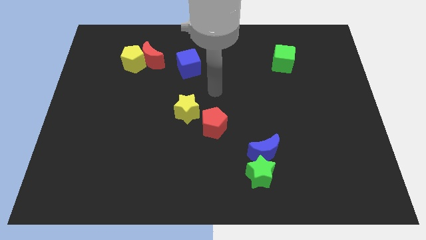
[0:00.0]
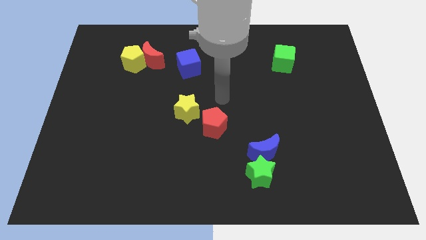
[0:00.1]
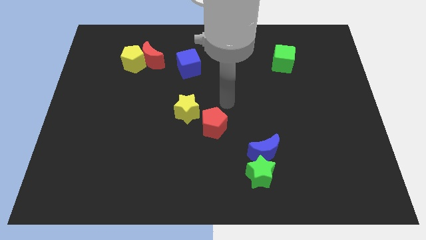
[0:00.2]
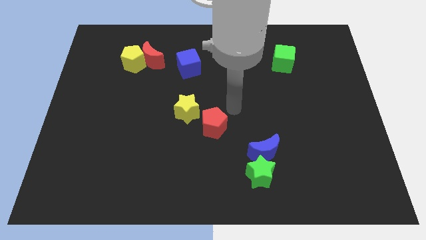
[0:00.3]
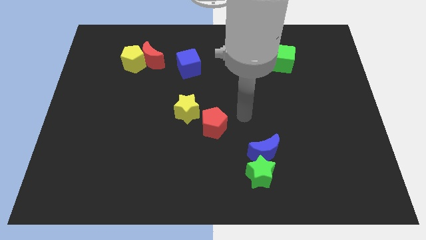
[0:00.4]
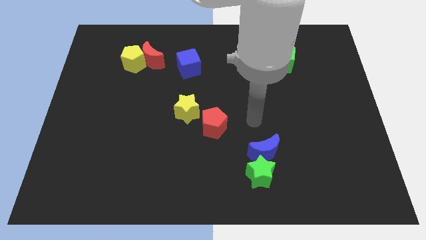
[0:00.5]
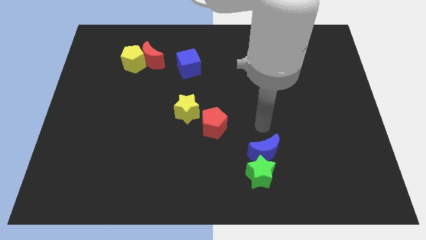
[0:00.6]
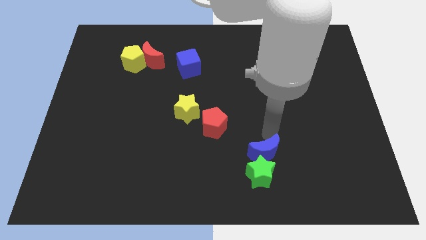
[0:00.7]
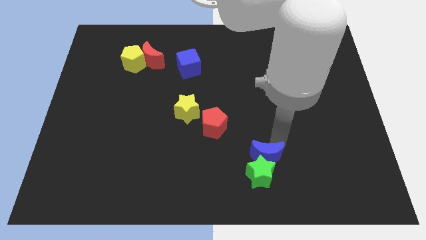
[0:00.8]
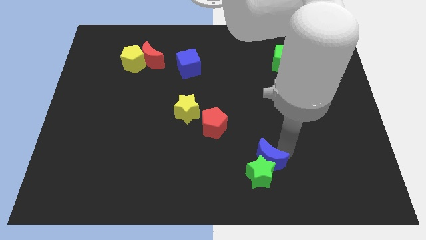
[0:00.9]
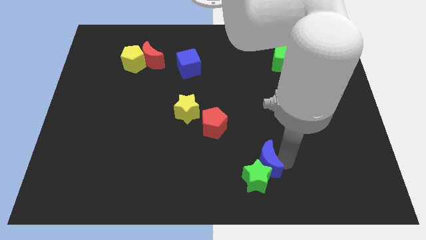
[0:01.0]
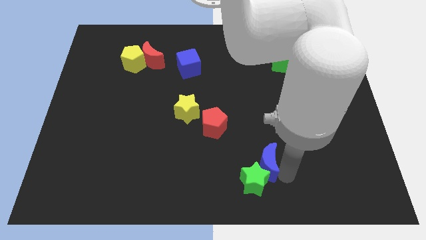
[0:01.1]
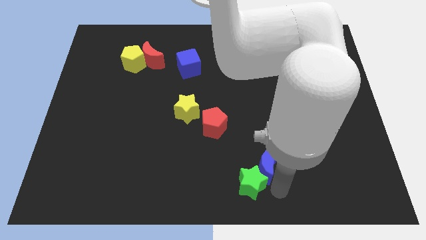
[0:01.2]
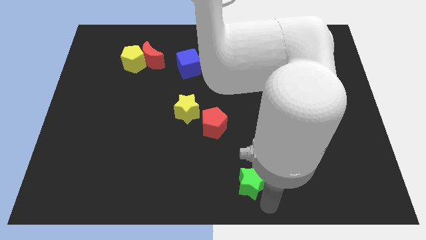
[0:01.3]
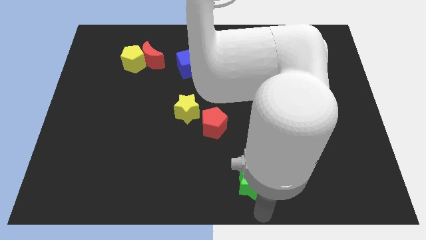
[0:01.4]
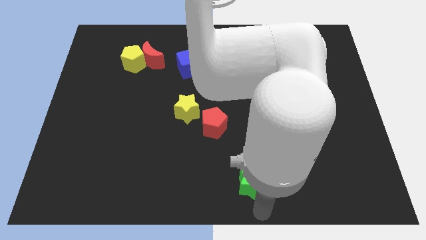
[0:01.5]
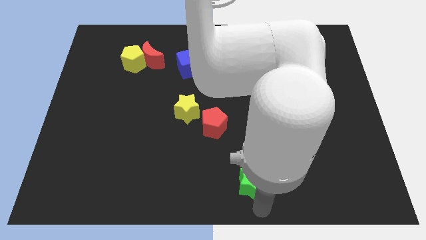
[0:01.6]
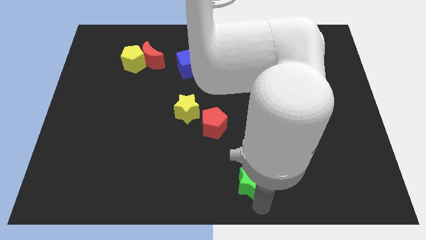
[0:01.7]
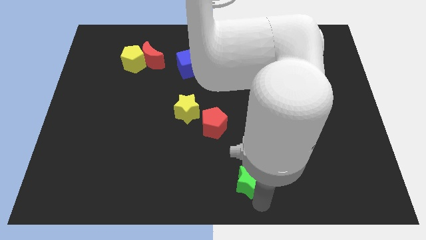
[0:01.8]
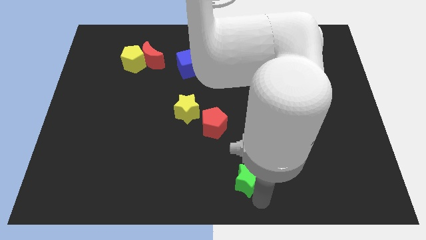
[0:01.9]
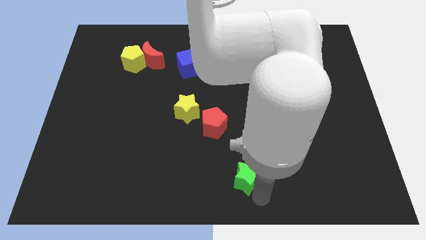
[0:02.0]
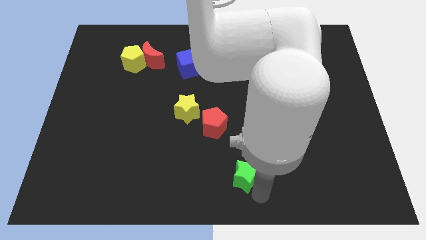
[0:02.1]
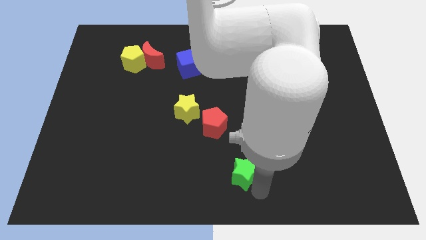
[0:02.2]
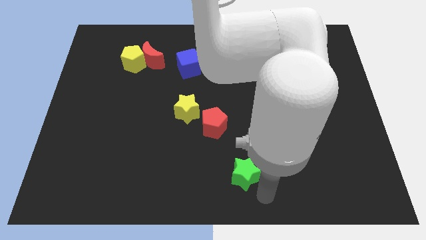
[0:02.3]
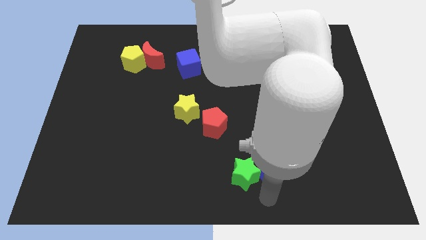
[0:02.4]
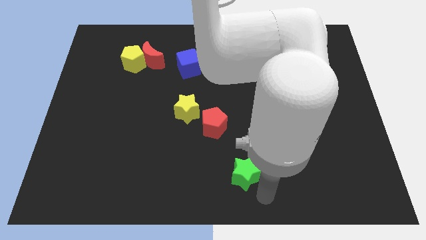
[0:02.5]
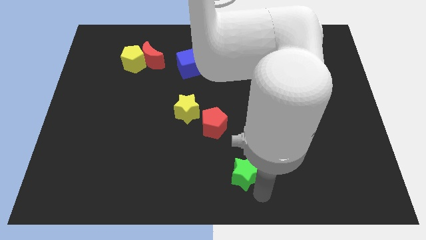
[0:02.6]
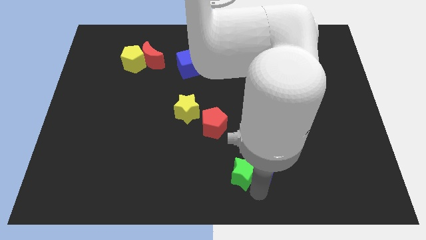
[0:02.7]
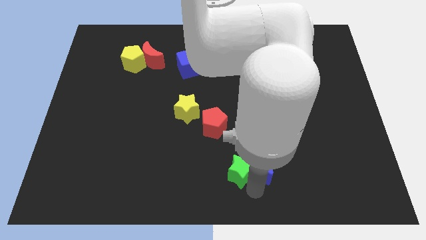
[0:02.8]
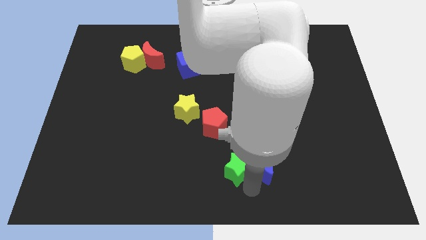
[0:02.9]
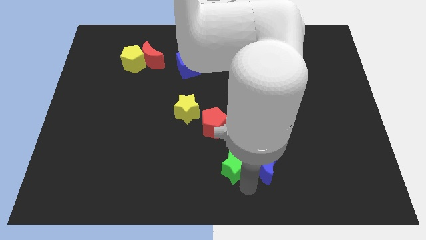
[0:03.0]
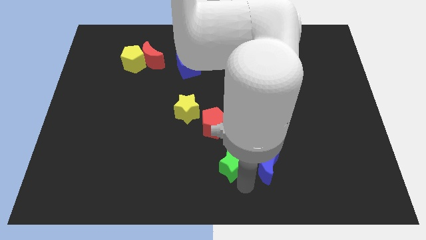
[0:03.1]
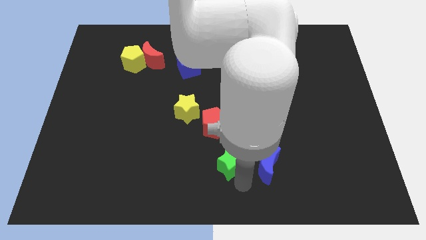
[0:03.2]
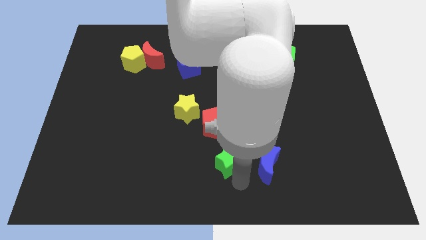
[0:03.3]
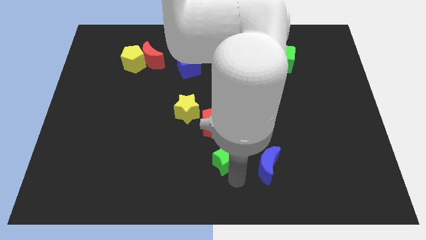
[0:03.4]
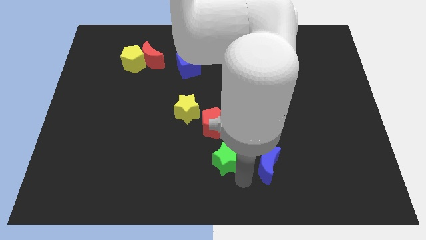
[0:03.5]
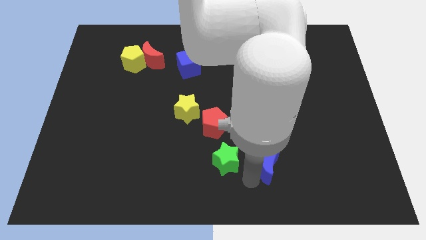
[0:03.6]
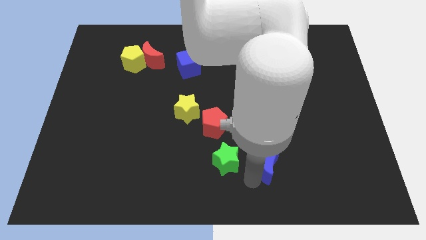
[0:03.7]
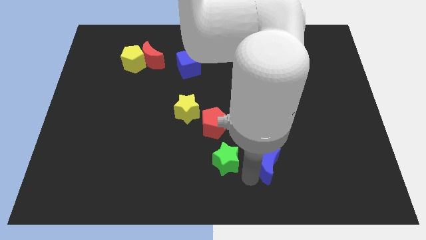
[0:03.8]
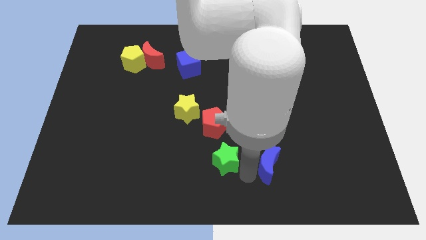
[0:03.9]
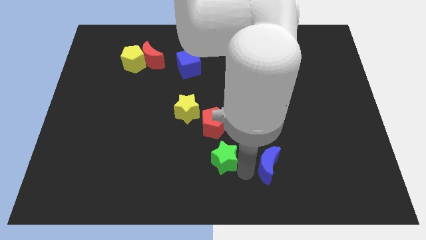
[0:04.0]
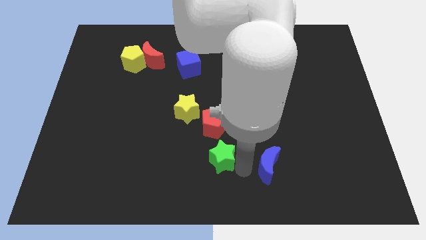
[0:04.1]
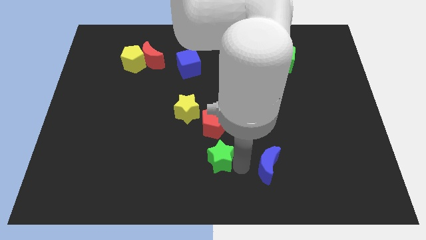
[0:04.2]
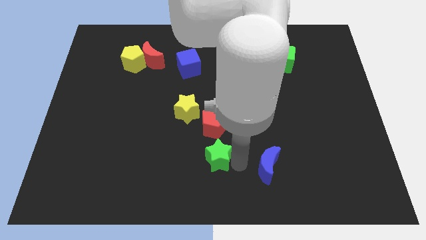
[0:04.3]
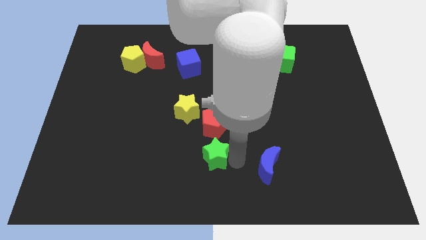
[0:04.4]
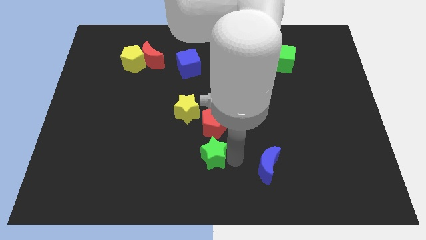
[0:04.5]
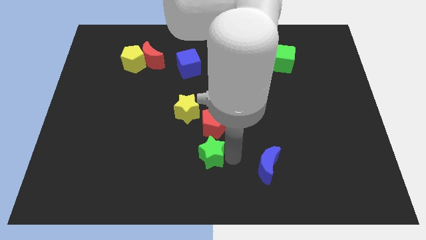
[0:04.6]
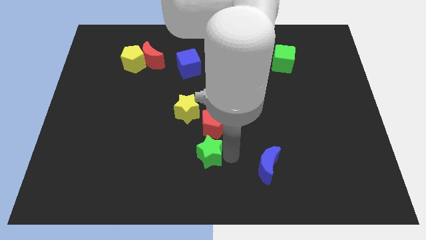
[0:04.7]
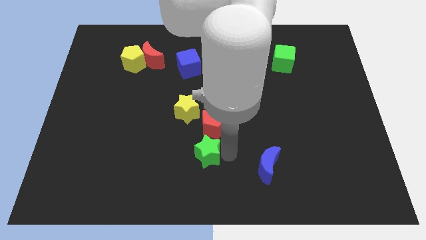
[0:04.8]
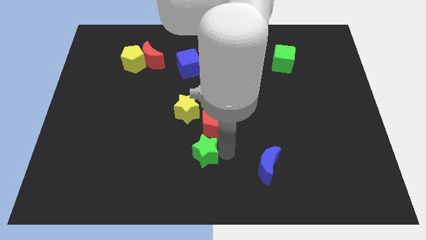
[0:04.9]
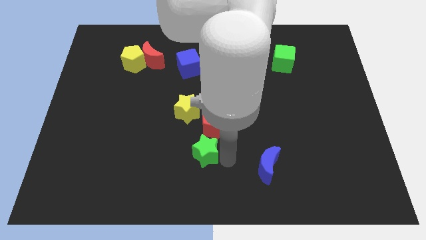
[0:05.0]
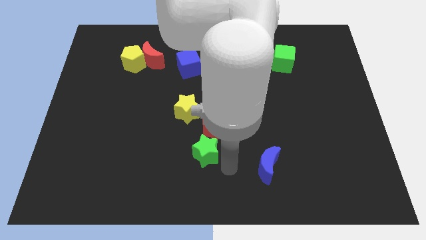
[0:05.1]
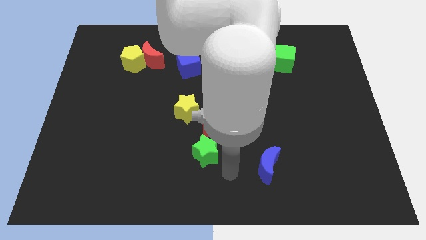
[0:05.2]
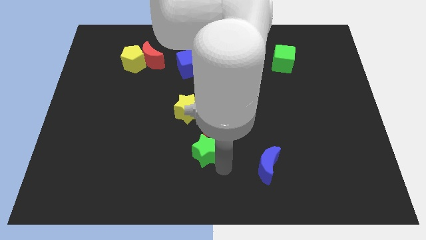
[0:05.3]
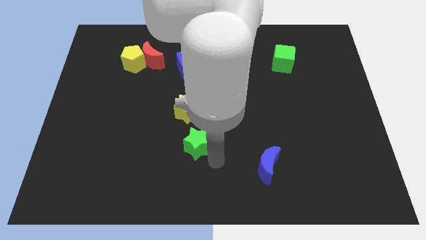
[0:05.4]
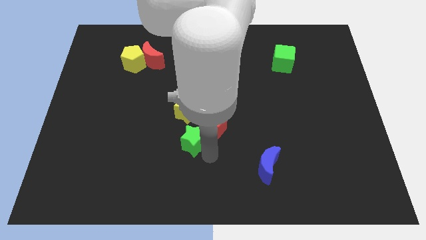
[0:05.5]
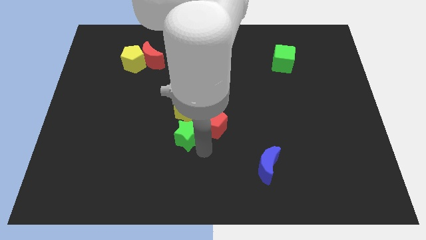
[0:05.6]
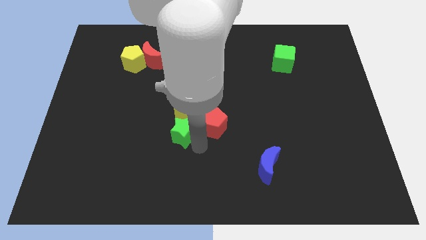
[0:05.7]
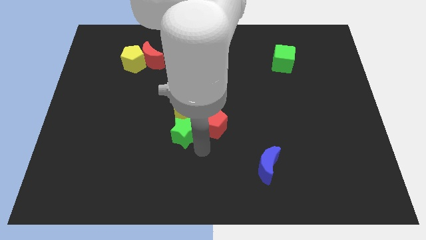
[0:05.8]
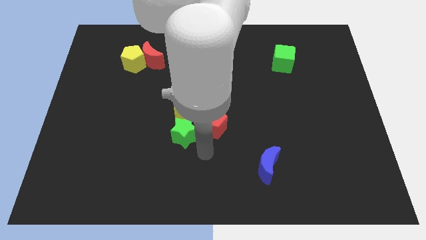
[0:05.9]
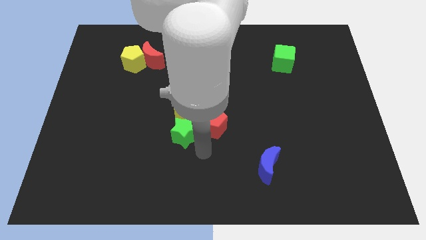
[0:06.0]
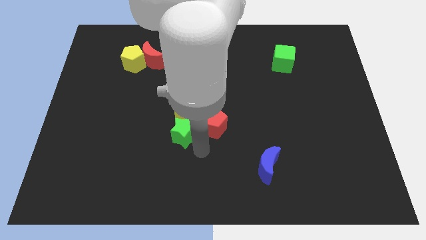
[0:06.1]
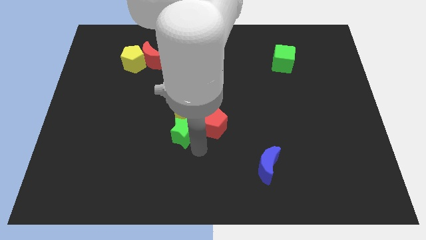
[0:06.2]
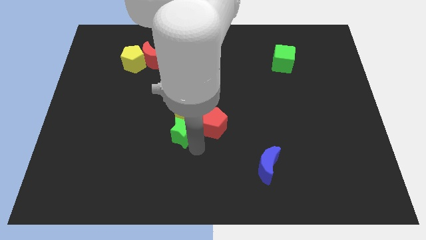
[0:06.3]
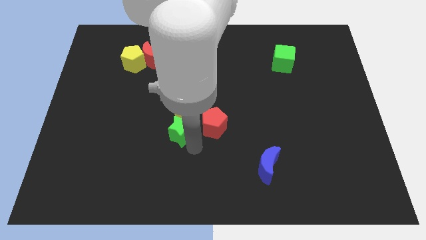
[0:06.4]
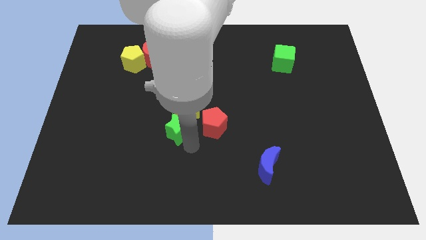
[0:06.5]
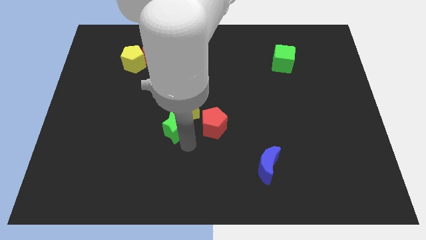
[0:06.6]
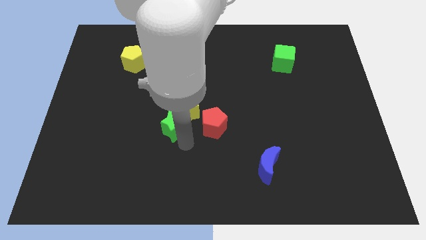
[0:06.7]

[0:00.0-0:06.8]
move the green star diagonally up and left

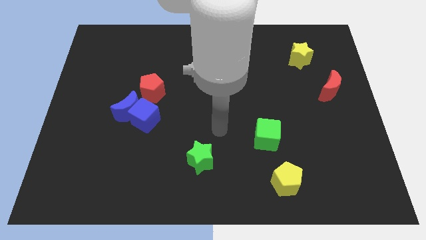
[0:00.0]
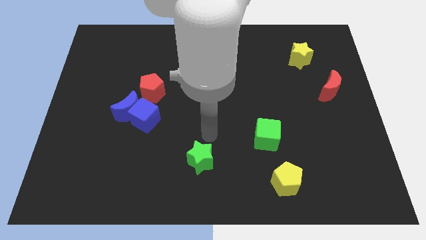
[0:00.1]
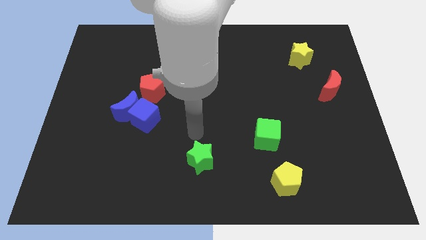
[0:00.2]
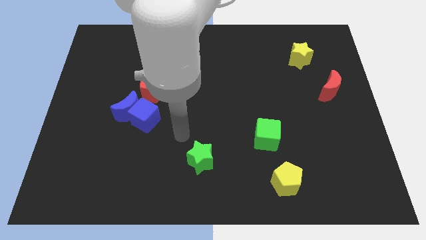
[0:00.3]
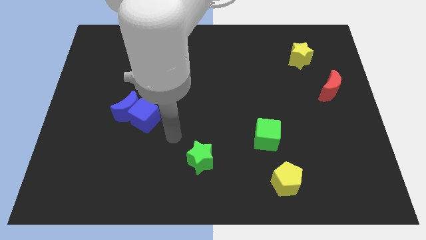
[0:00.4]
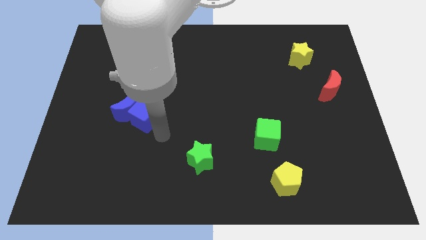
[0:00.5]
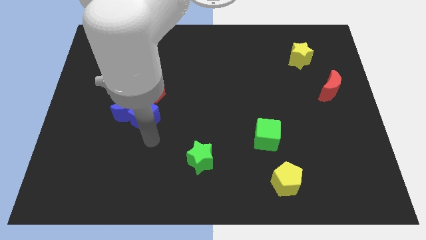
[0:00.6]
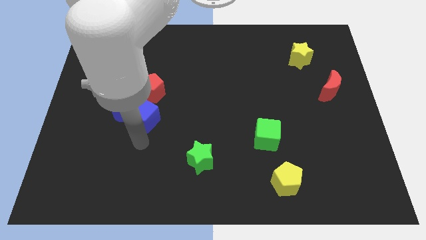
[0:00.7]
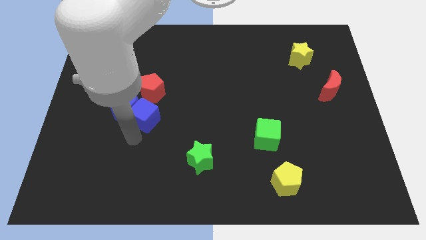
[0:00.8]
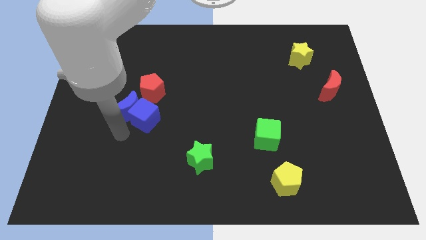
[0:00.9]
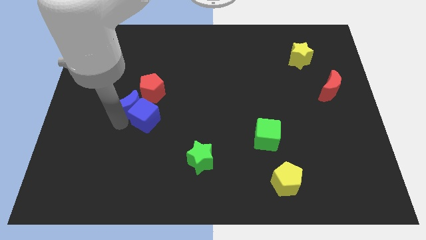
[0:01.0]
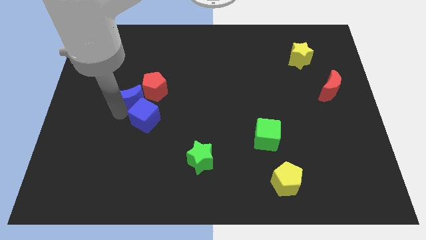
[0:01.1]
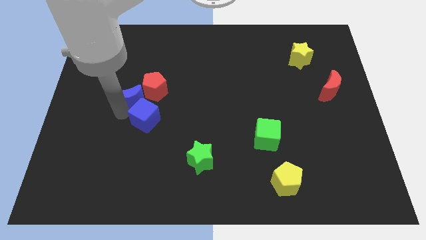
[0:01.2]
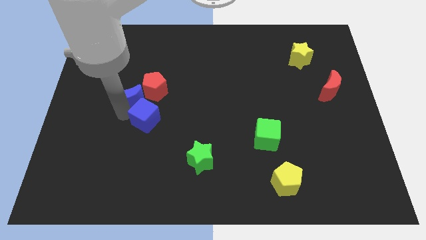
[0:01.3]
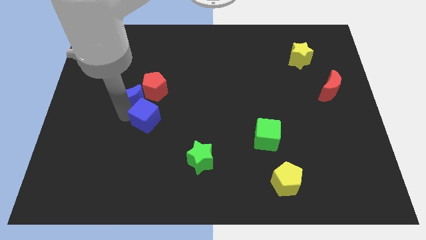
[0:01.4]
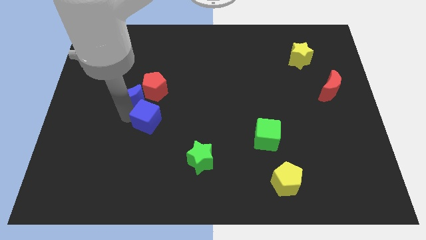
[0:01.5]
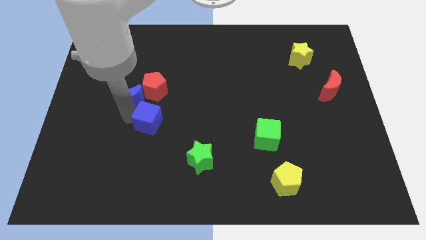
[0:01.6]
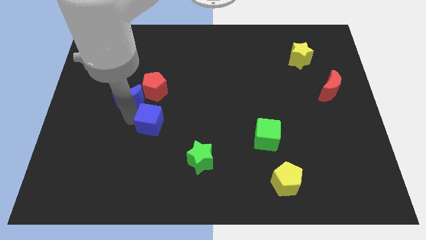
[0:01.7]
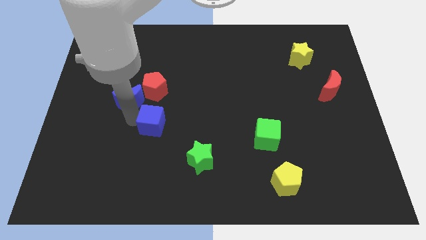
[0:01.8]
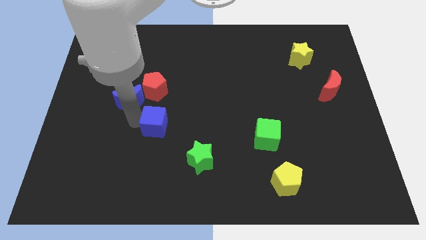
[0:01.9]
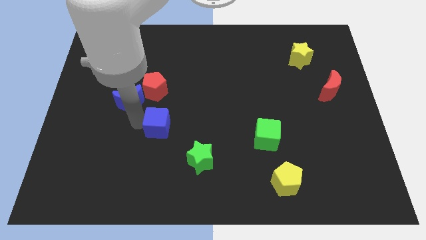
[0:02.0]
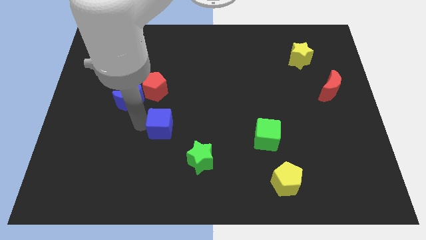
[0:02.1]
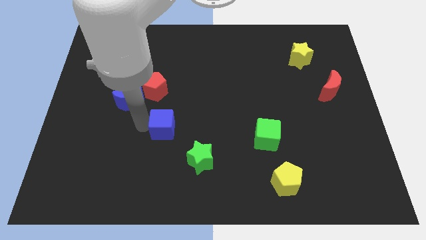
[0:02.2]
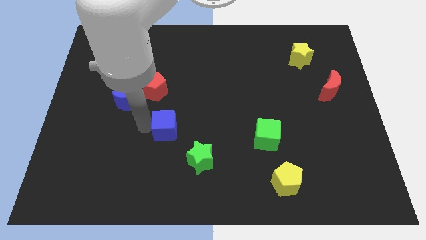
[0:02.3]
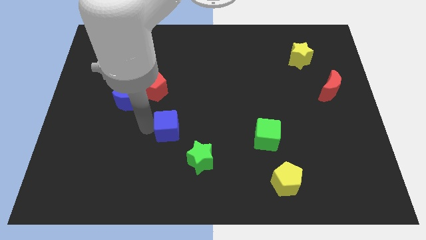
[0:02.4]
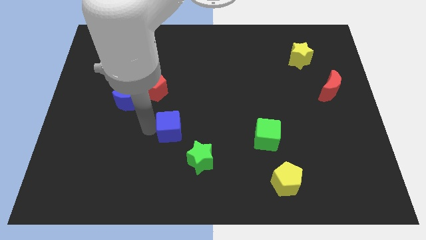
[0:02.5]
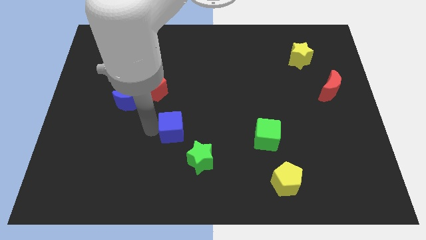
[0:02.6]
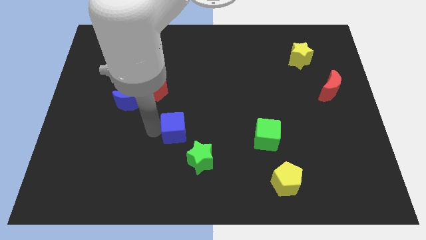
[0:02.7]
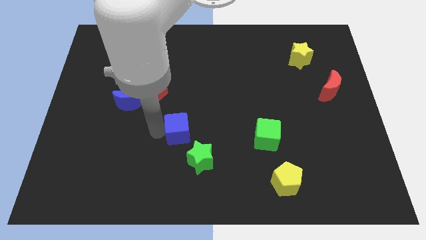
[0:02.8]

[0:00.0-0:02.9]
move the blue cube a bit right
